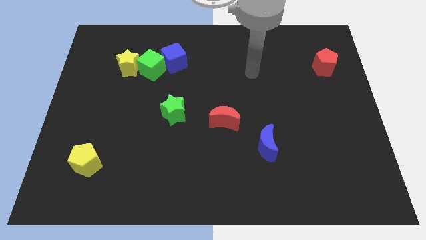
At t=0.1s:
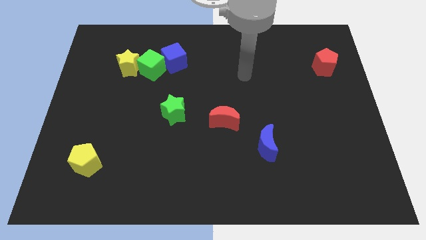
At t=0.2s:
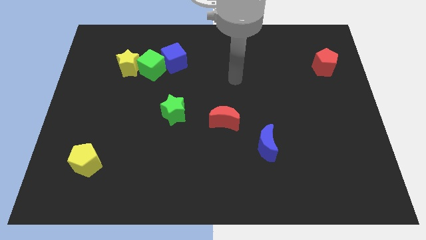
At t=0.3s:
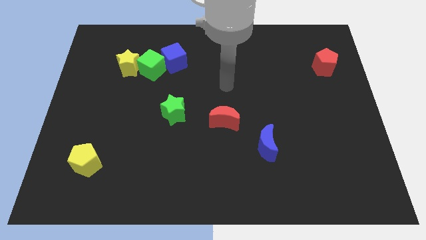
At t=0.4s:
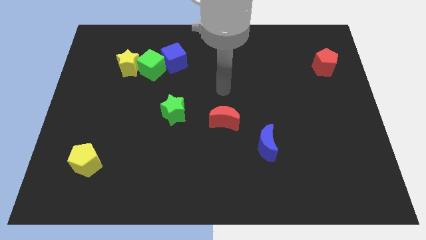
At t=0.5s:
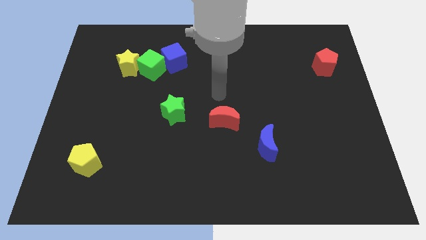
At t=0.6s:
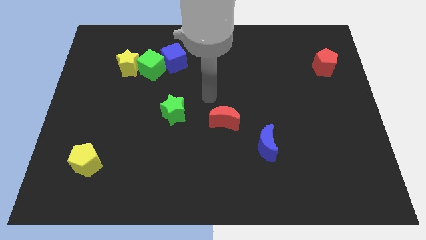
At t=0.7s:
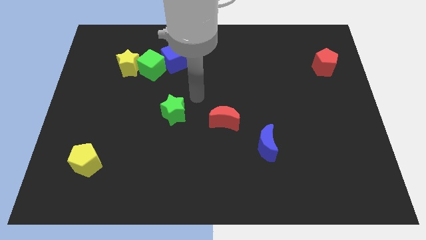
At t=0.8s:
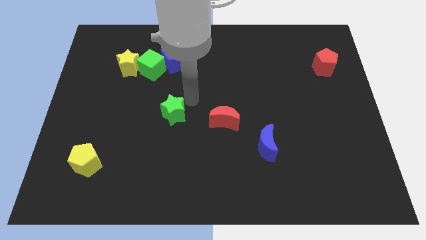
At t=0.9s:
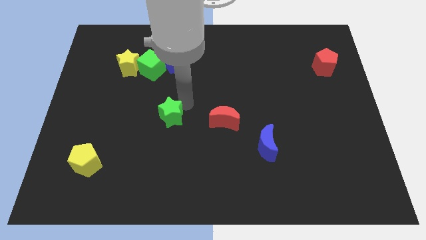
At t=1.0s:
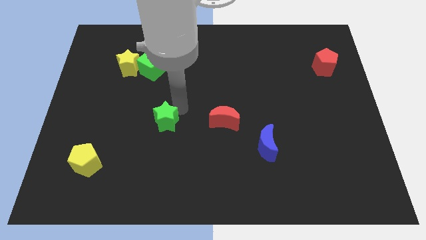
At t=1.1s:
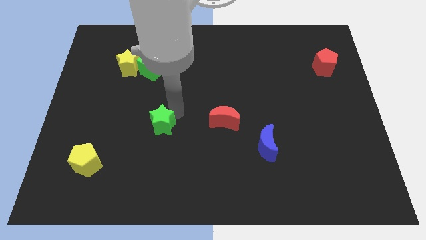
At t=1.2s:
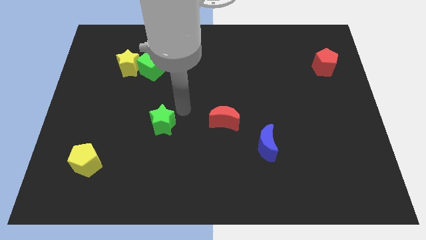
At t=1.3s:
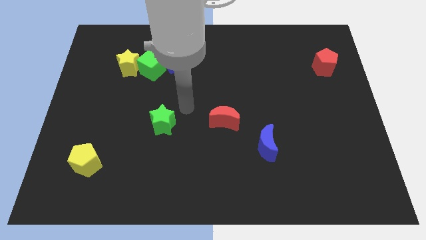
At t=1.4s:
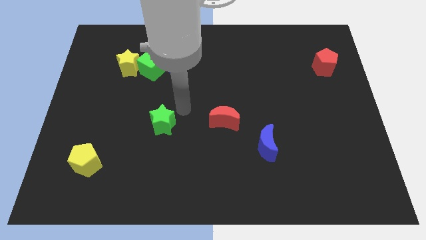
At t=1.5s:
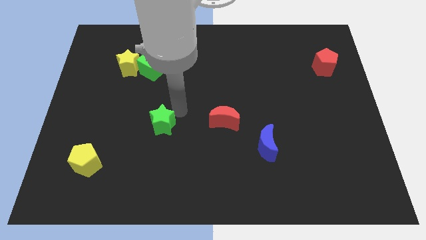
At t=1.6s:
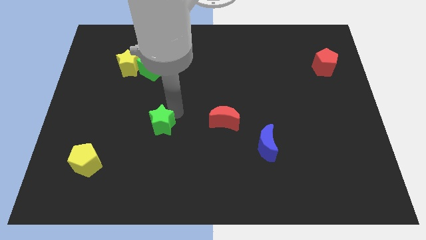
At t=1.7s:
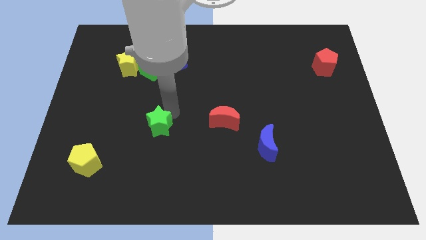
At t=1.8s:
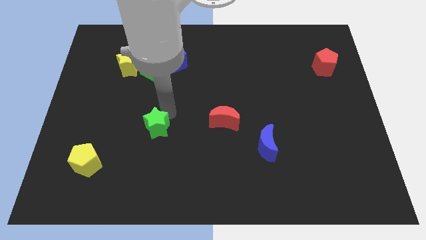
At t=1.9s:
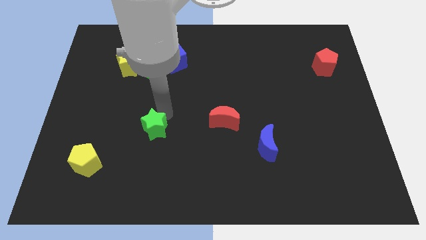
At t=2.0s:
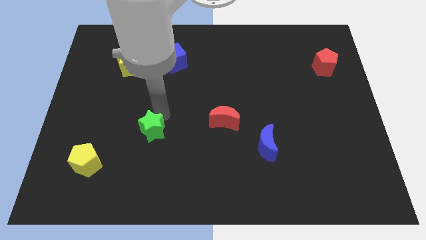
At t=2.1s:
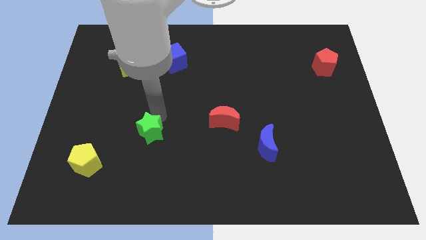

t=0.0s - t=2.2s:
slightly move the green star down and to the left

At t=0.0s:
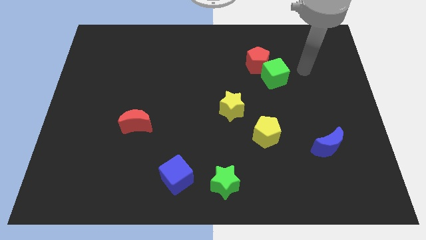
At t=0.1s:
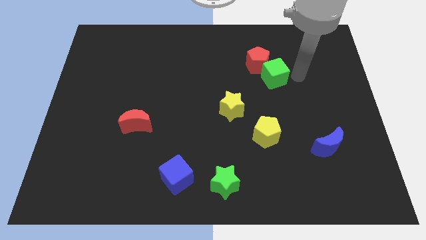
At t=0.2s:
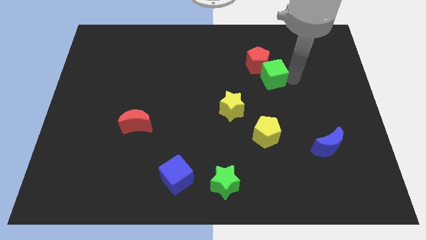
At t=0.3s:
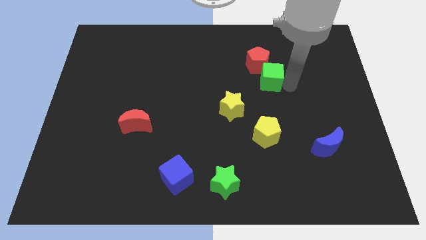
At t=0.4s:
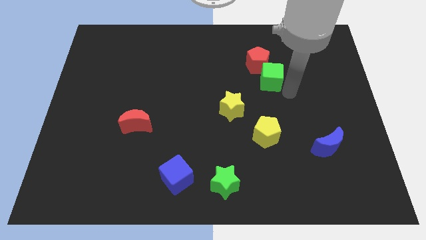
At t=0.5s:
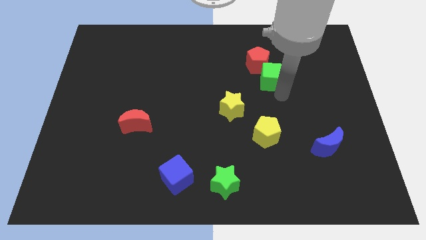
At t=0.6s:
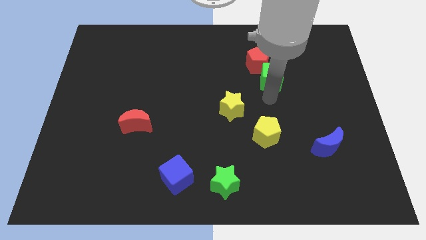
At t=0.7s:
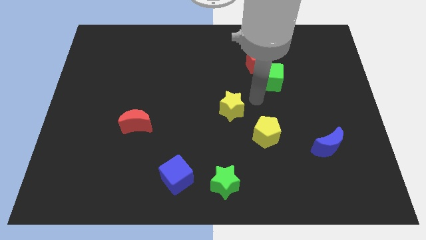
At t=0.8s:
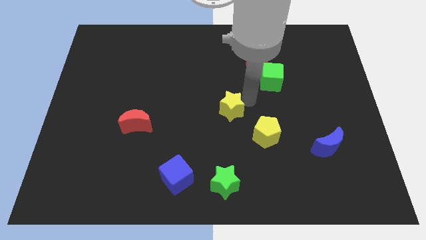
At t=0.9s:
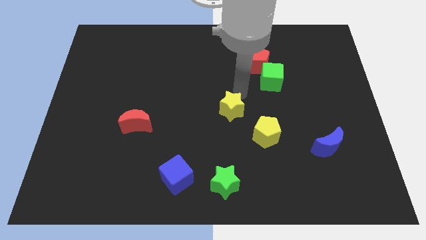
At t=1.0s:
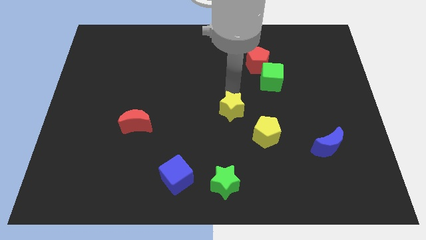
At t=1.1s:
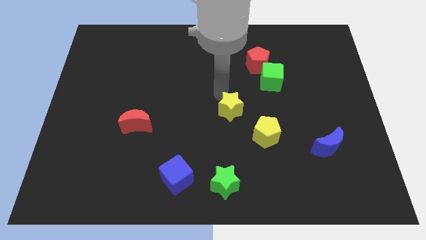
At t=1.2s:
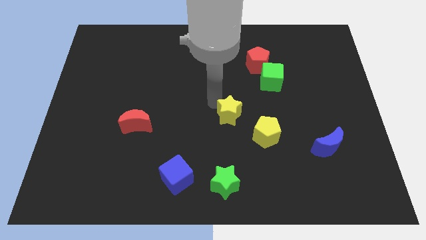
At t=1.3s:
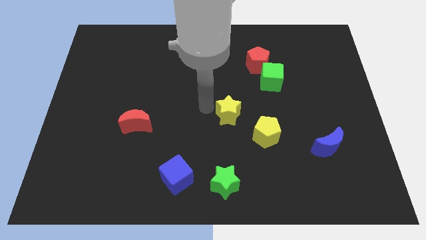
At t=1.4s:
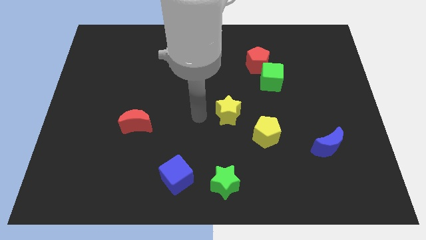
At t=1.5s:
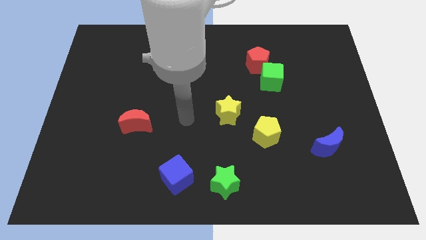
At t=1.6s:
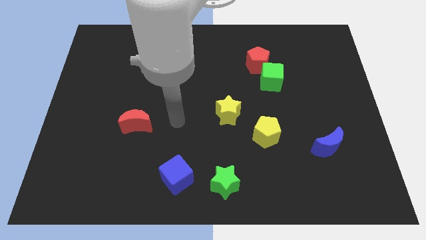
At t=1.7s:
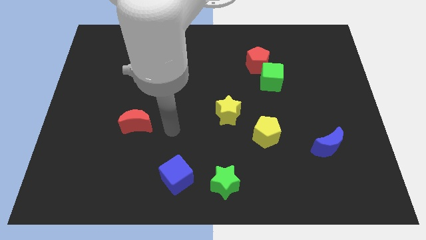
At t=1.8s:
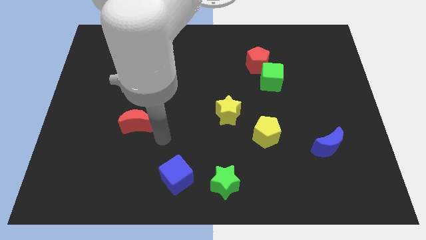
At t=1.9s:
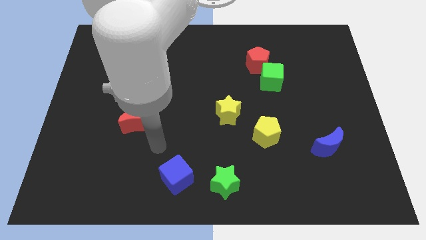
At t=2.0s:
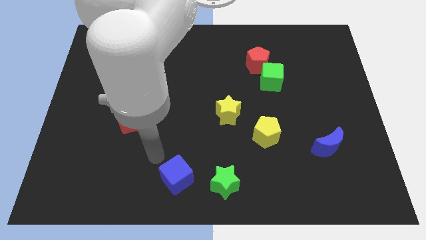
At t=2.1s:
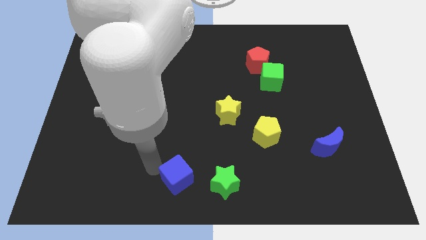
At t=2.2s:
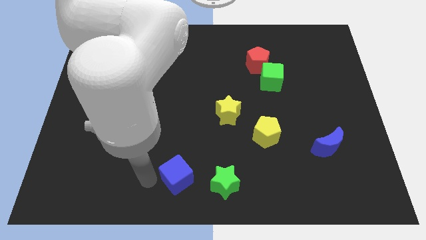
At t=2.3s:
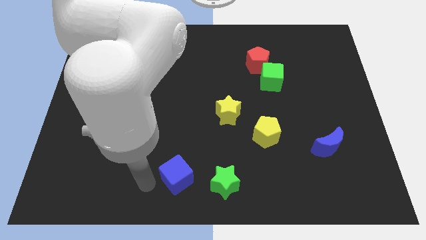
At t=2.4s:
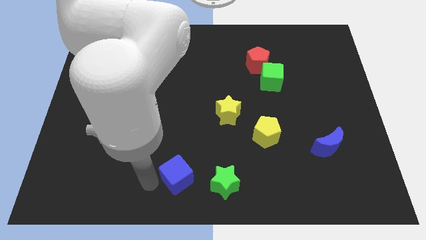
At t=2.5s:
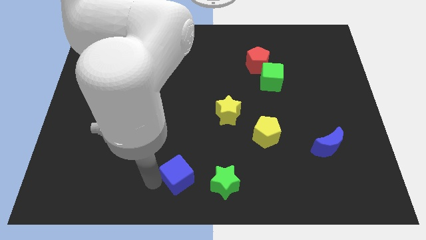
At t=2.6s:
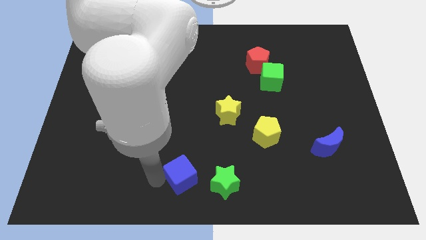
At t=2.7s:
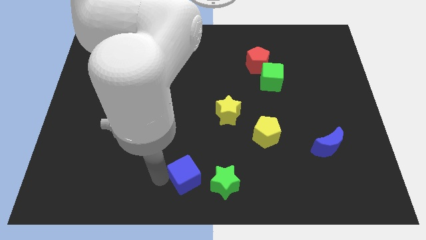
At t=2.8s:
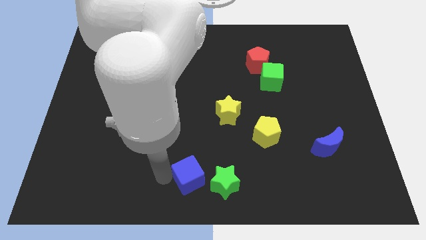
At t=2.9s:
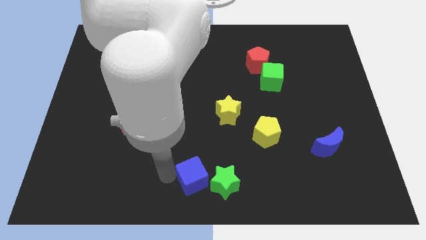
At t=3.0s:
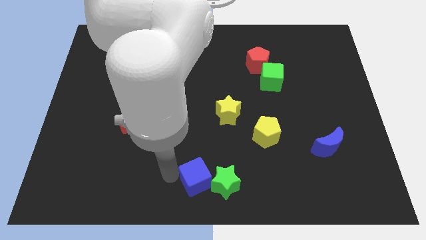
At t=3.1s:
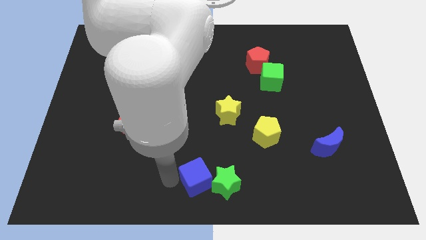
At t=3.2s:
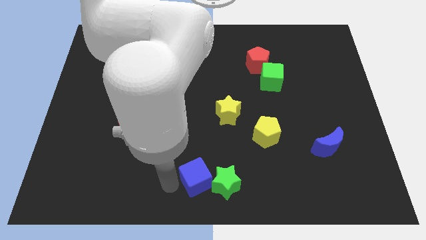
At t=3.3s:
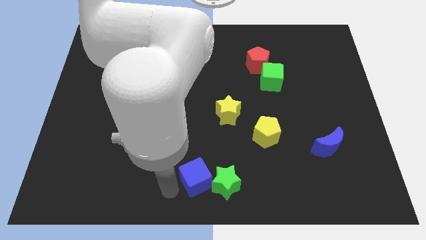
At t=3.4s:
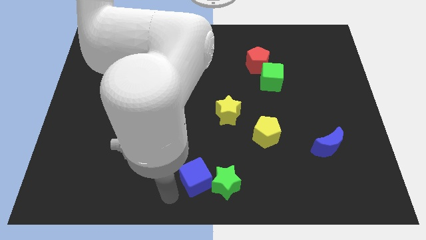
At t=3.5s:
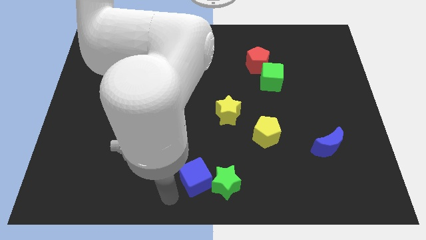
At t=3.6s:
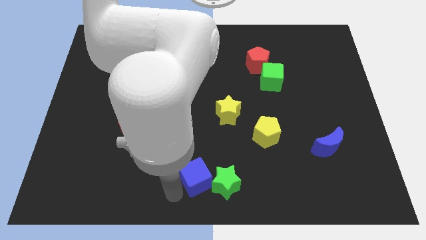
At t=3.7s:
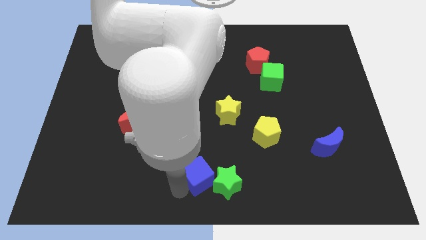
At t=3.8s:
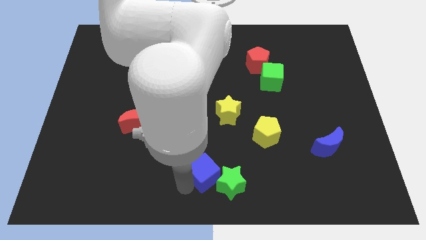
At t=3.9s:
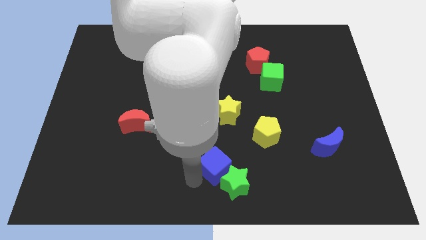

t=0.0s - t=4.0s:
slightly push the blue cube to the right

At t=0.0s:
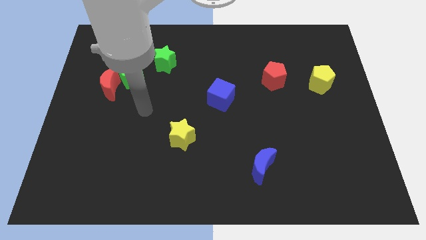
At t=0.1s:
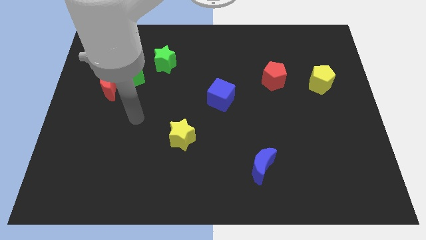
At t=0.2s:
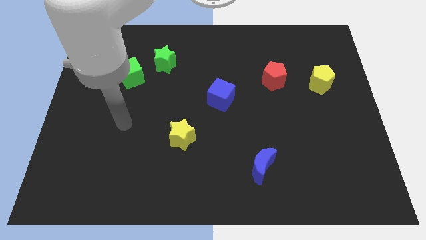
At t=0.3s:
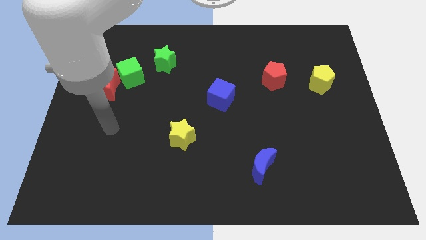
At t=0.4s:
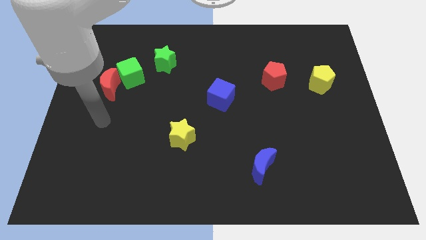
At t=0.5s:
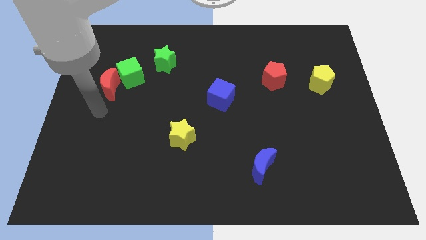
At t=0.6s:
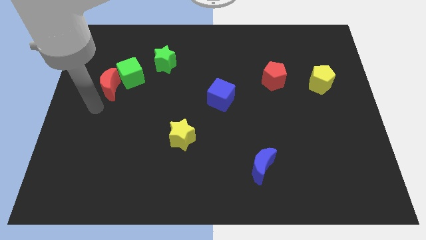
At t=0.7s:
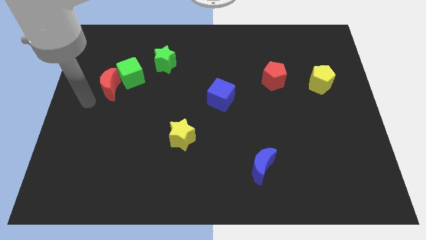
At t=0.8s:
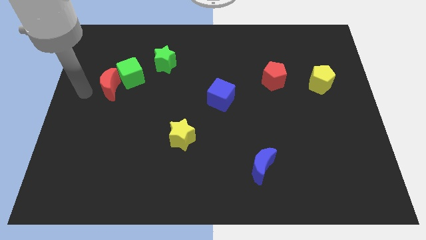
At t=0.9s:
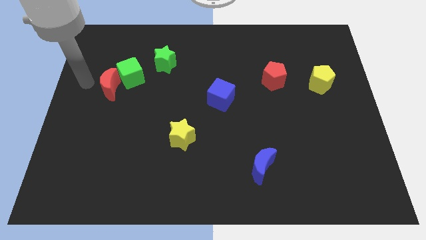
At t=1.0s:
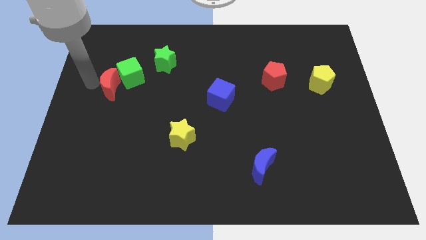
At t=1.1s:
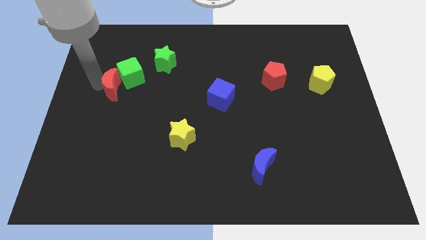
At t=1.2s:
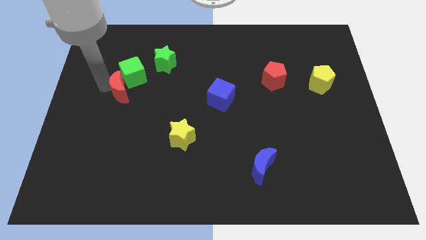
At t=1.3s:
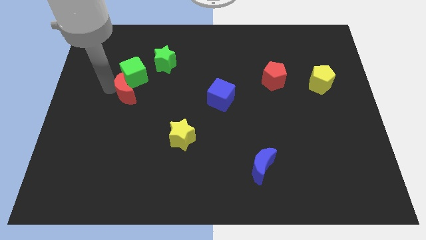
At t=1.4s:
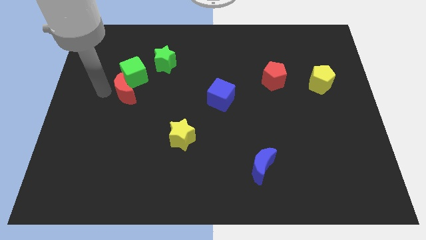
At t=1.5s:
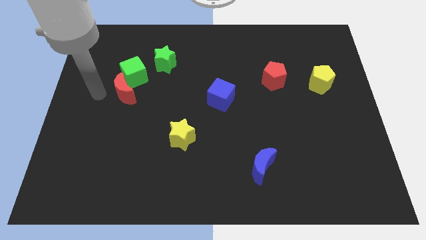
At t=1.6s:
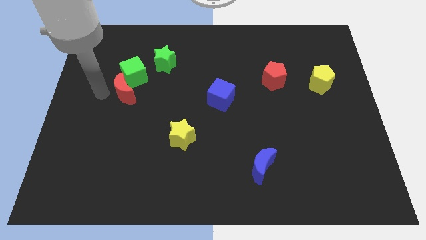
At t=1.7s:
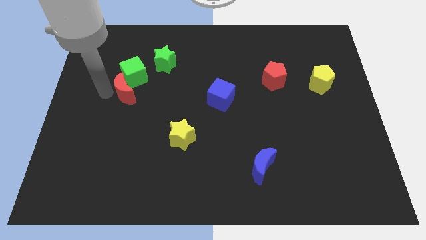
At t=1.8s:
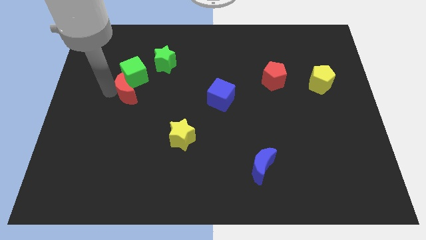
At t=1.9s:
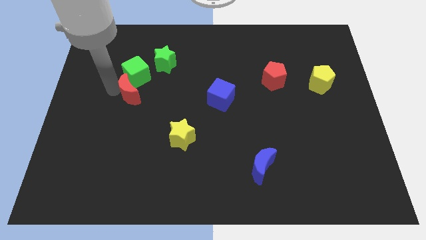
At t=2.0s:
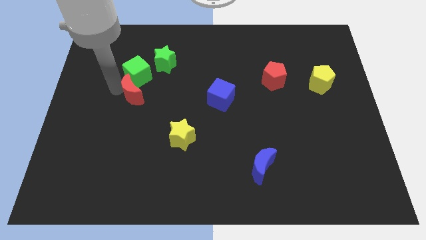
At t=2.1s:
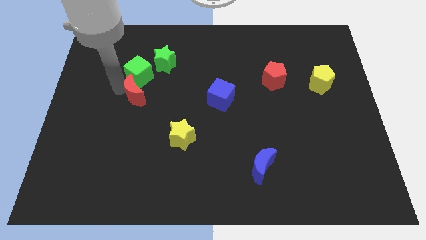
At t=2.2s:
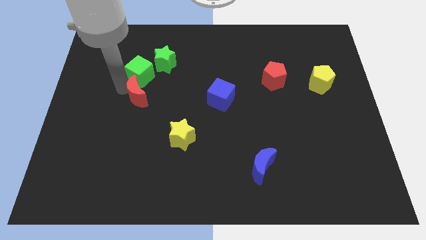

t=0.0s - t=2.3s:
slightly push the red moon to the right
